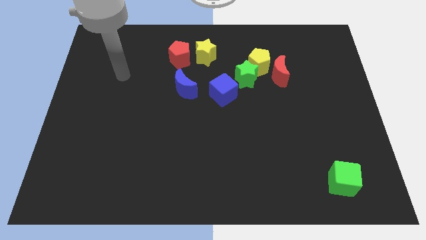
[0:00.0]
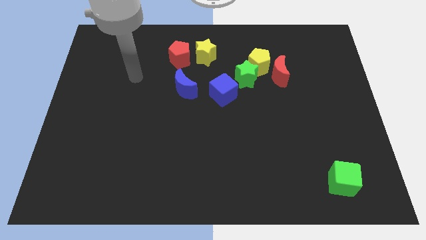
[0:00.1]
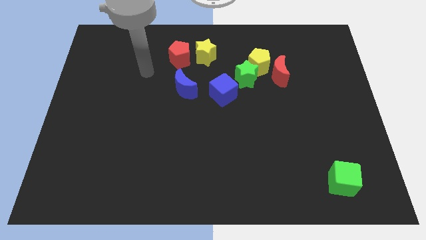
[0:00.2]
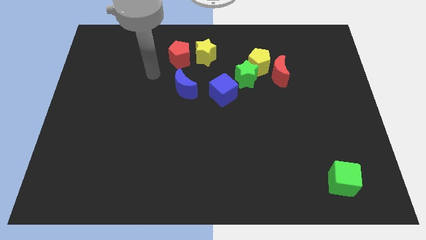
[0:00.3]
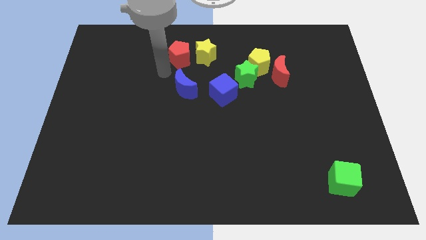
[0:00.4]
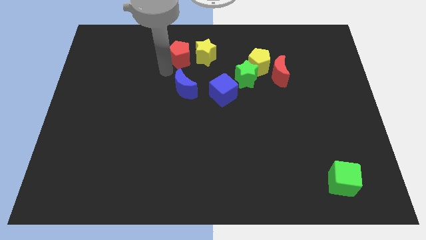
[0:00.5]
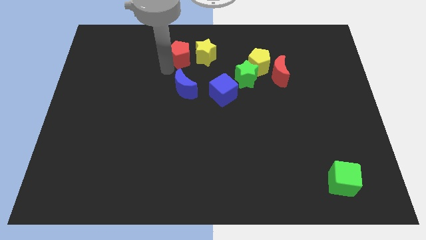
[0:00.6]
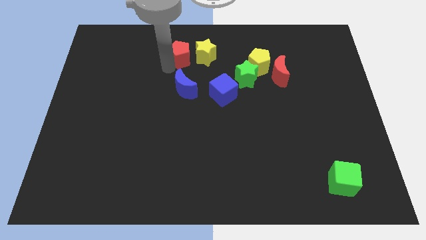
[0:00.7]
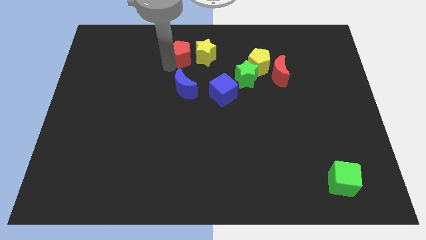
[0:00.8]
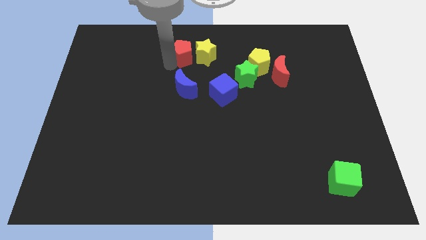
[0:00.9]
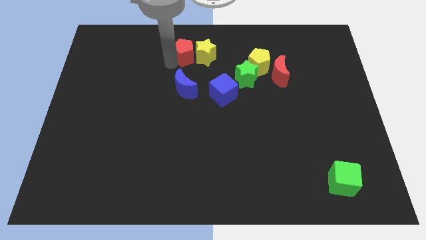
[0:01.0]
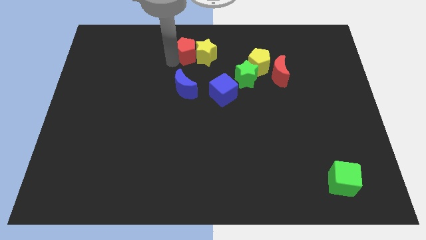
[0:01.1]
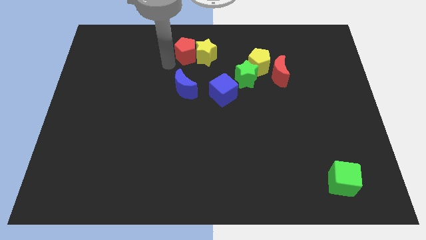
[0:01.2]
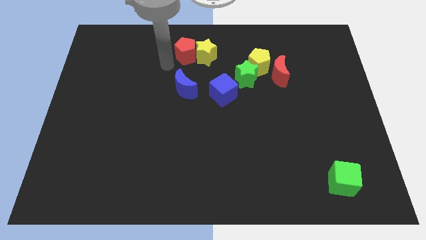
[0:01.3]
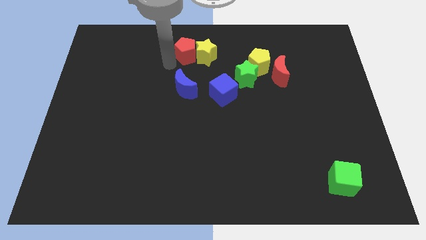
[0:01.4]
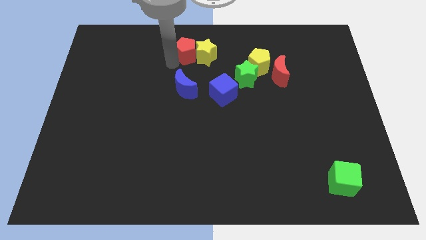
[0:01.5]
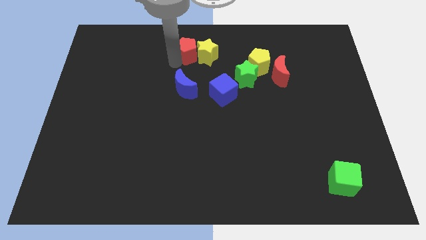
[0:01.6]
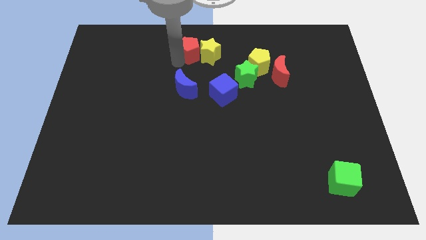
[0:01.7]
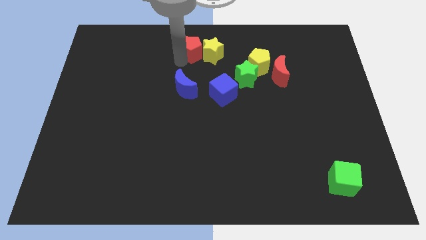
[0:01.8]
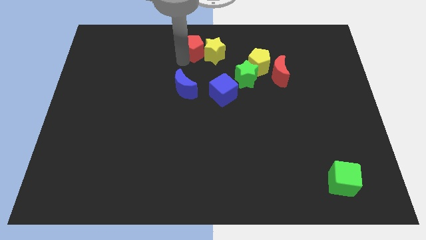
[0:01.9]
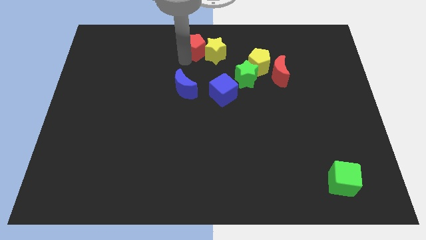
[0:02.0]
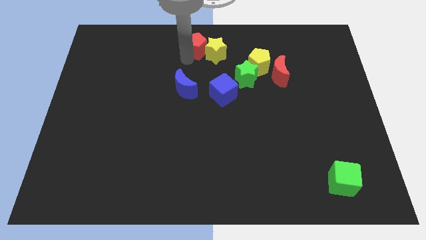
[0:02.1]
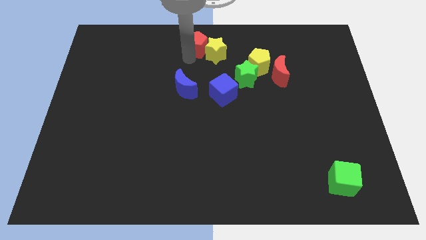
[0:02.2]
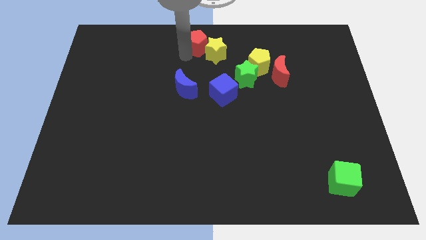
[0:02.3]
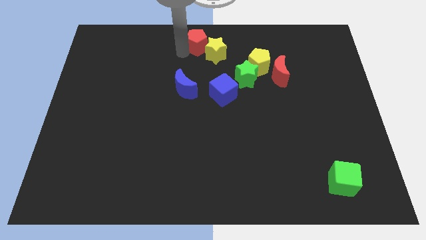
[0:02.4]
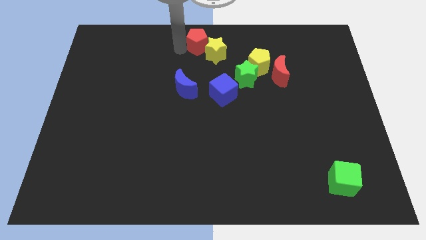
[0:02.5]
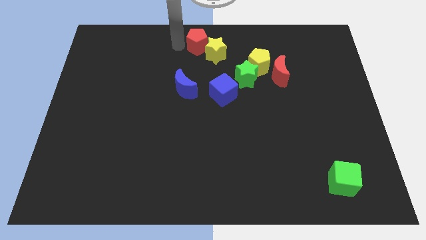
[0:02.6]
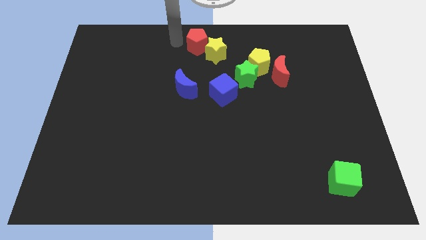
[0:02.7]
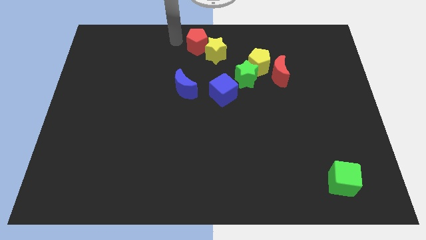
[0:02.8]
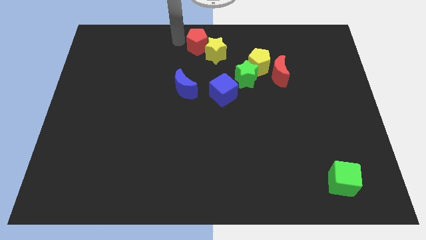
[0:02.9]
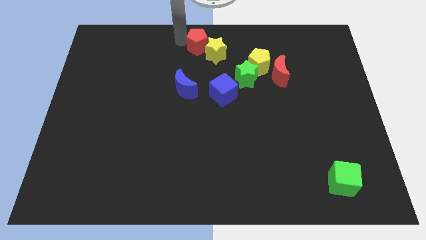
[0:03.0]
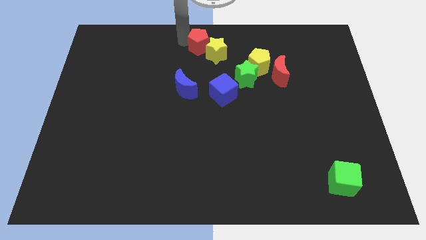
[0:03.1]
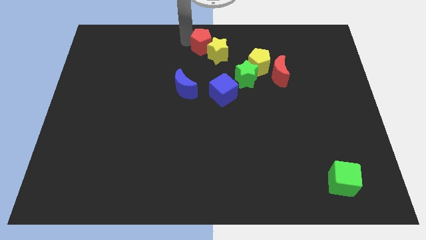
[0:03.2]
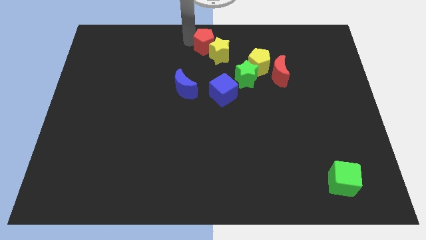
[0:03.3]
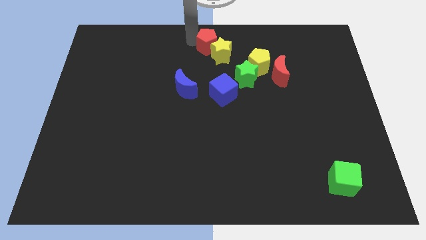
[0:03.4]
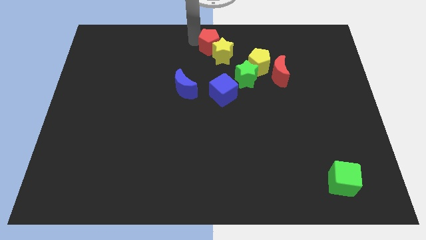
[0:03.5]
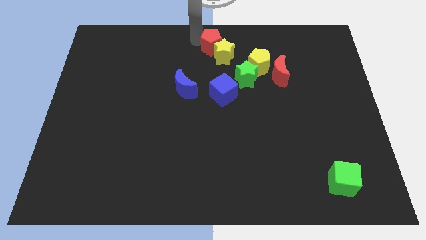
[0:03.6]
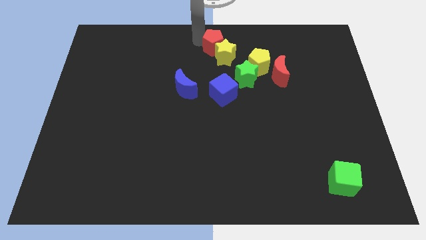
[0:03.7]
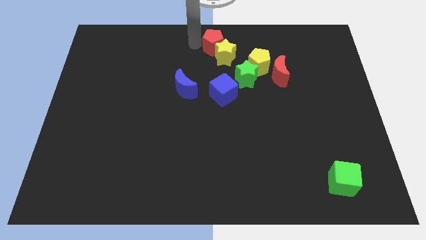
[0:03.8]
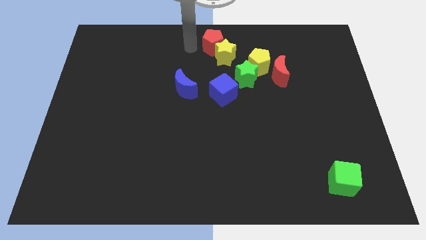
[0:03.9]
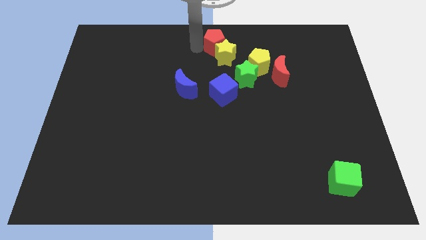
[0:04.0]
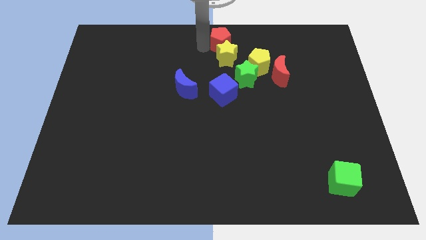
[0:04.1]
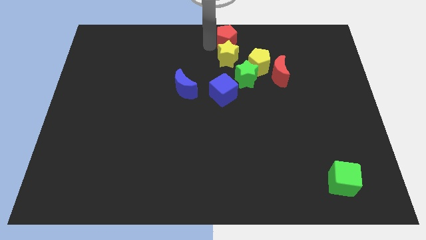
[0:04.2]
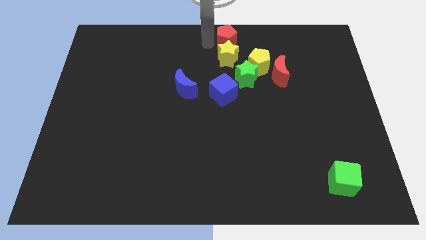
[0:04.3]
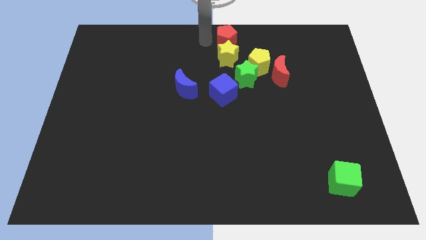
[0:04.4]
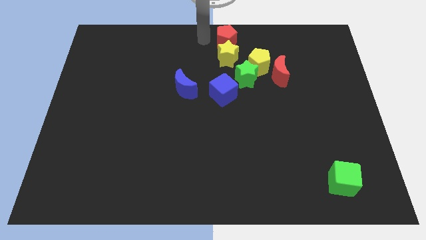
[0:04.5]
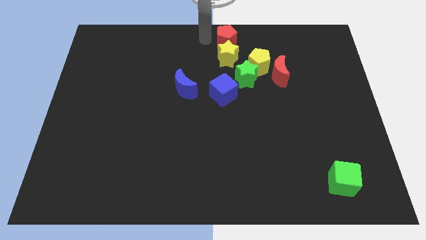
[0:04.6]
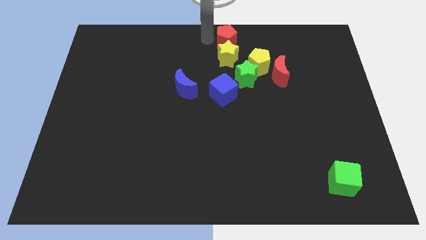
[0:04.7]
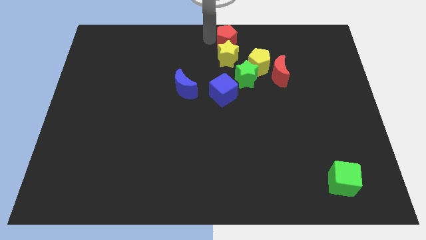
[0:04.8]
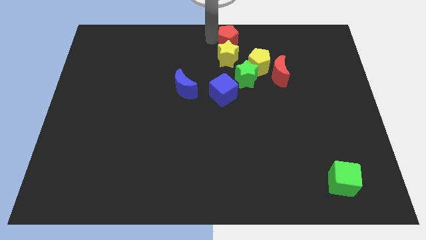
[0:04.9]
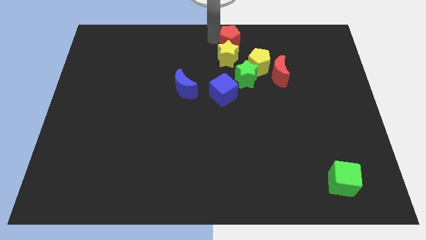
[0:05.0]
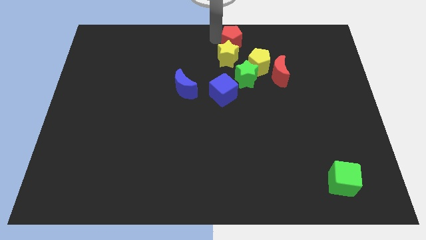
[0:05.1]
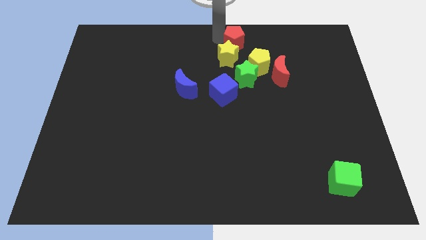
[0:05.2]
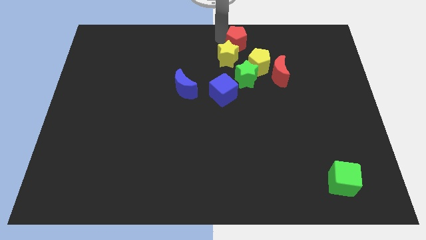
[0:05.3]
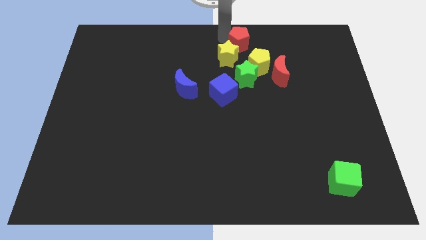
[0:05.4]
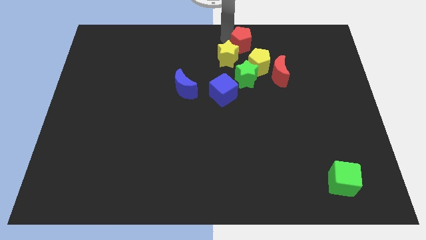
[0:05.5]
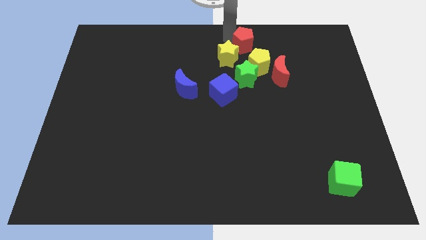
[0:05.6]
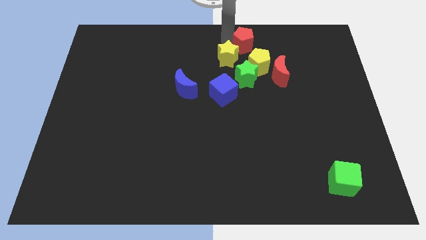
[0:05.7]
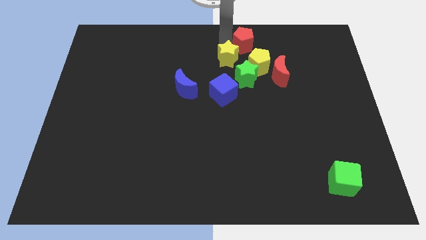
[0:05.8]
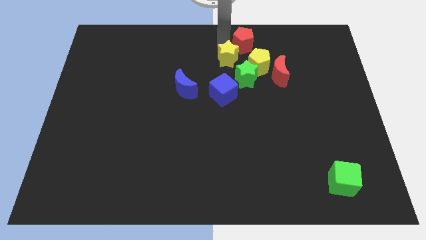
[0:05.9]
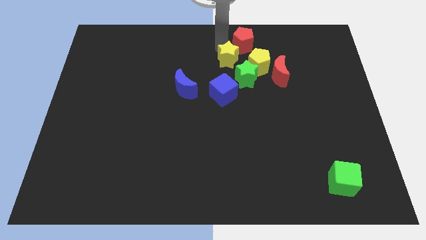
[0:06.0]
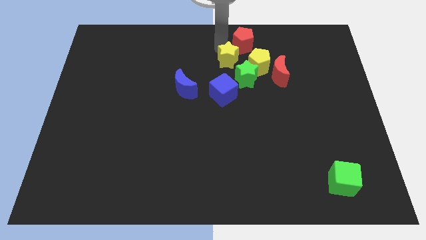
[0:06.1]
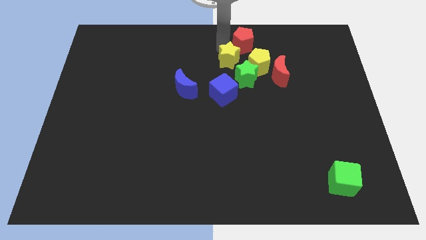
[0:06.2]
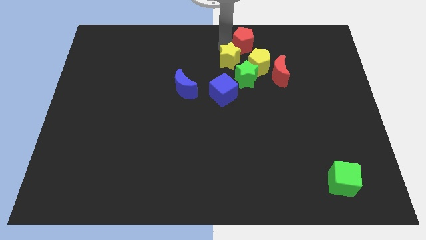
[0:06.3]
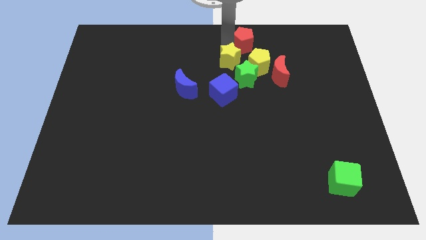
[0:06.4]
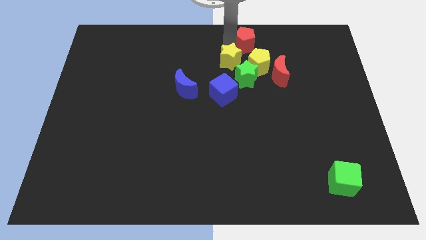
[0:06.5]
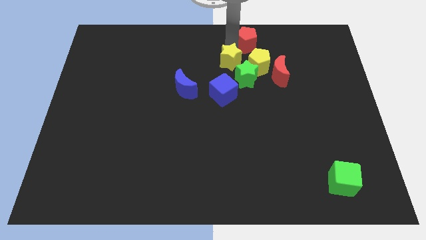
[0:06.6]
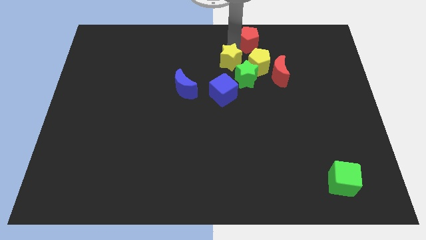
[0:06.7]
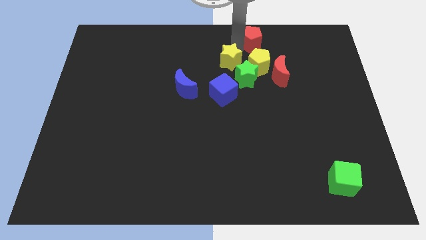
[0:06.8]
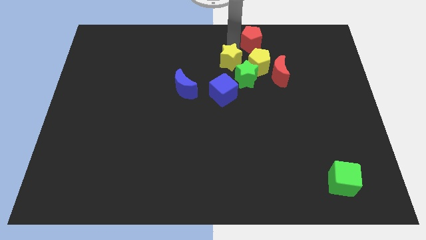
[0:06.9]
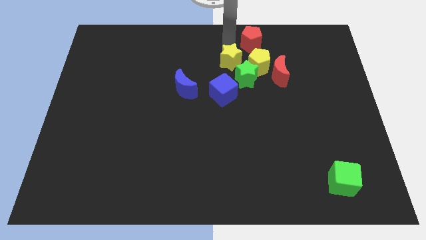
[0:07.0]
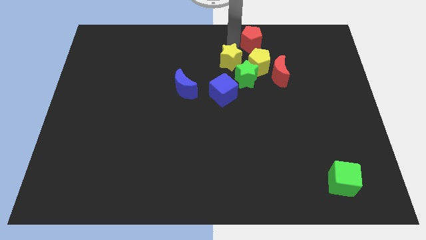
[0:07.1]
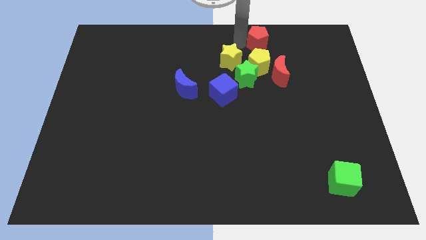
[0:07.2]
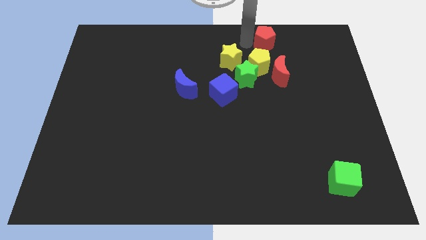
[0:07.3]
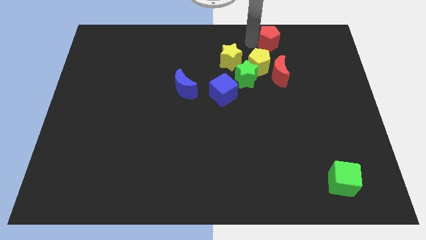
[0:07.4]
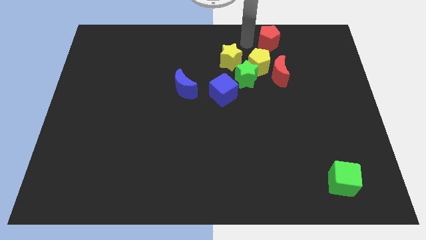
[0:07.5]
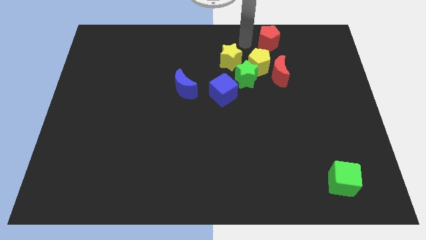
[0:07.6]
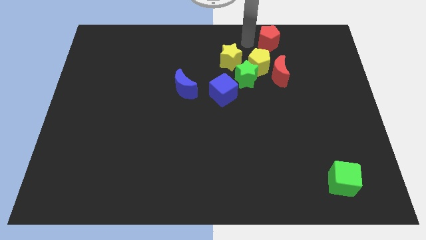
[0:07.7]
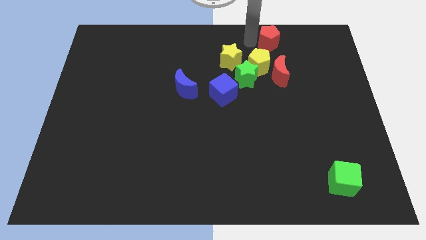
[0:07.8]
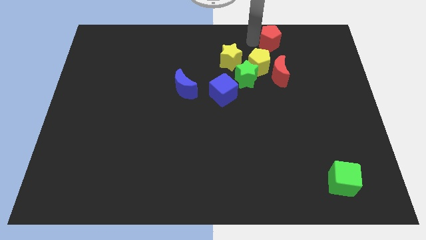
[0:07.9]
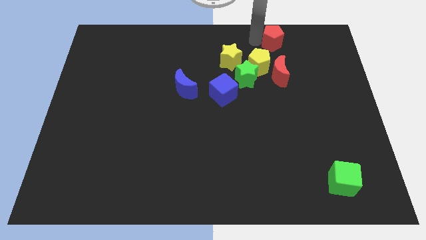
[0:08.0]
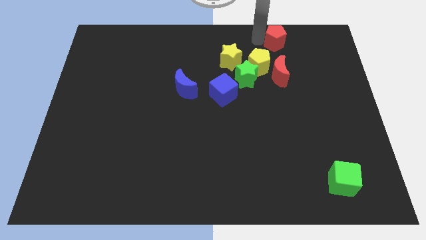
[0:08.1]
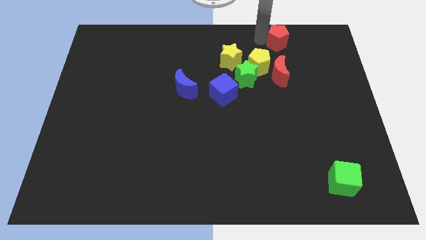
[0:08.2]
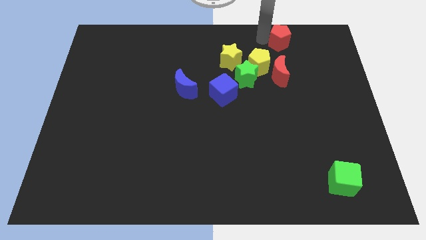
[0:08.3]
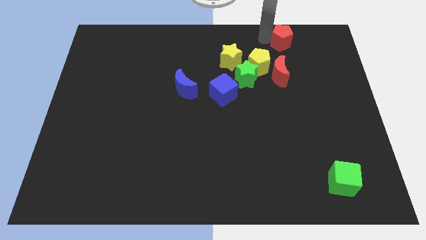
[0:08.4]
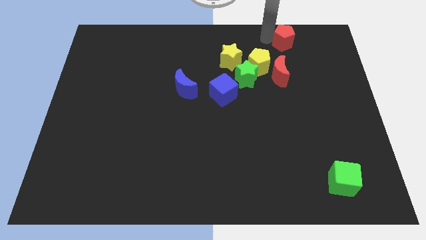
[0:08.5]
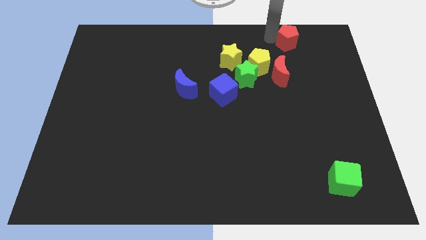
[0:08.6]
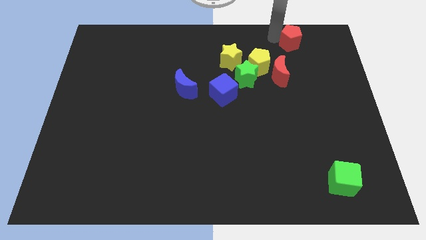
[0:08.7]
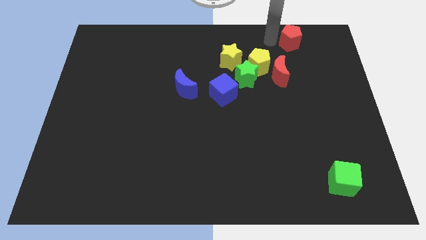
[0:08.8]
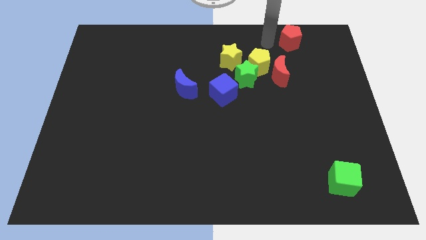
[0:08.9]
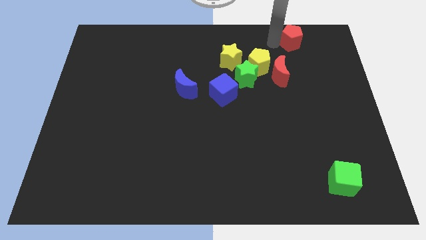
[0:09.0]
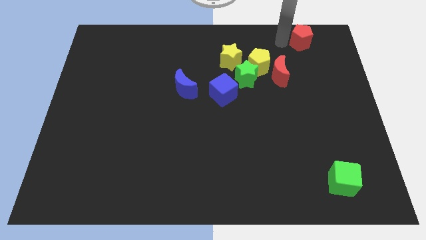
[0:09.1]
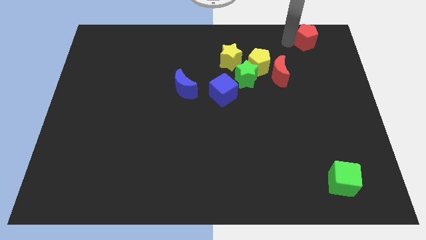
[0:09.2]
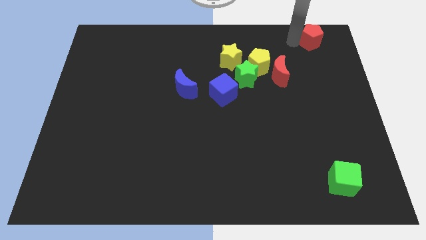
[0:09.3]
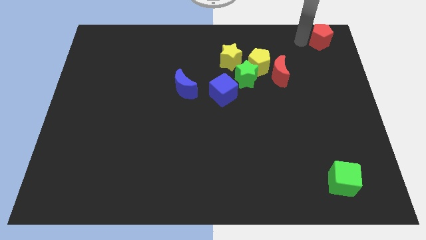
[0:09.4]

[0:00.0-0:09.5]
put the red pentagon to the top right
